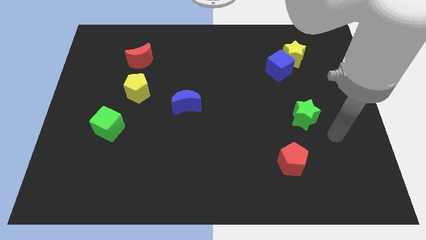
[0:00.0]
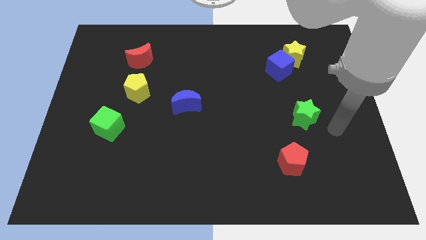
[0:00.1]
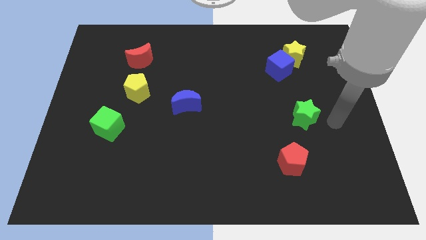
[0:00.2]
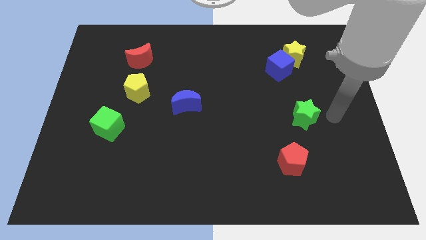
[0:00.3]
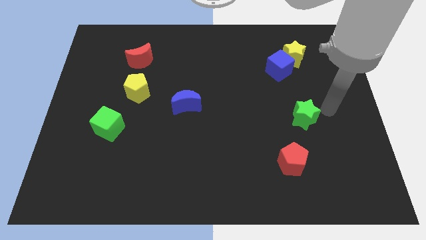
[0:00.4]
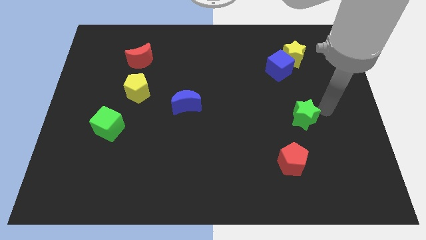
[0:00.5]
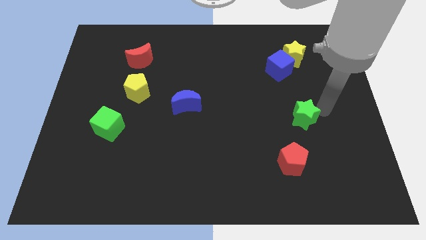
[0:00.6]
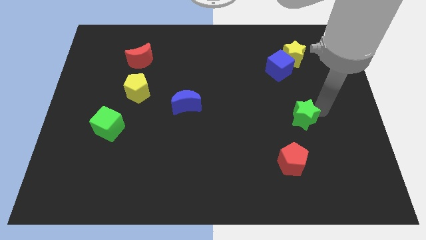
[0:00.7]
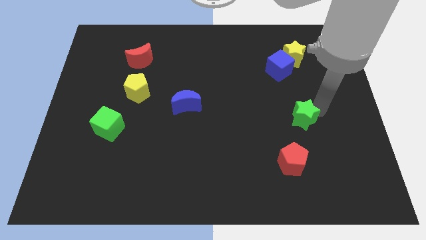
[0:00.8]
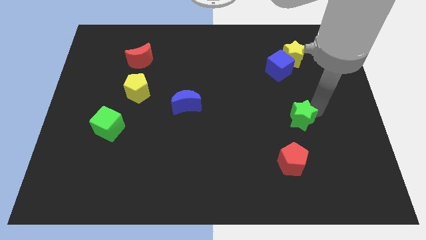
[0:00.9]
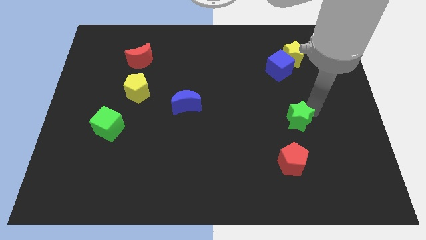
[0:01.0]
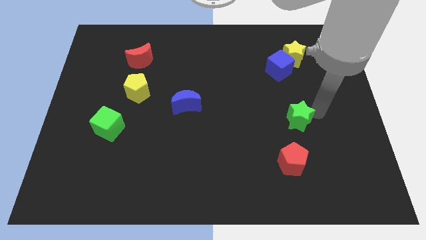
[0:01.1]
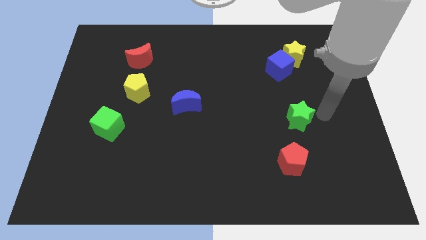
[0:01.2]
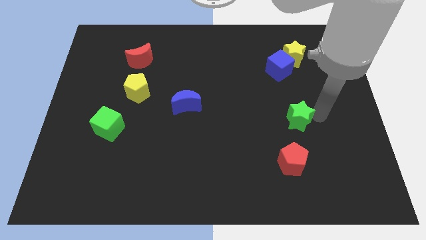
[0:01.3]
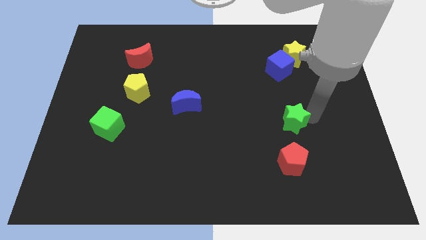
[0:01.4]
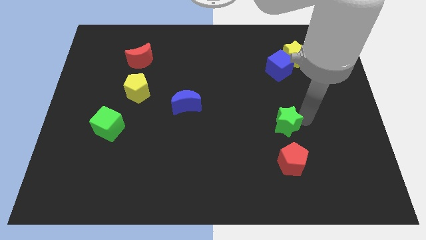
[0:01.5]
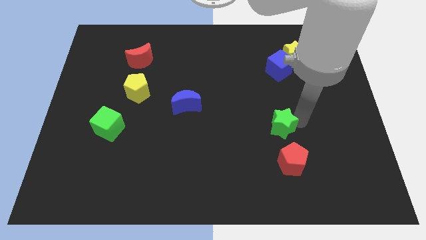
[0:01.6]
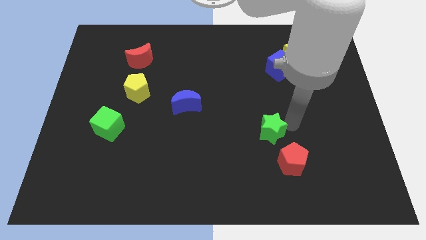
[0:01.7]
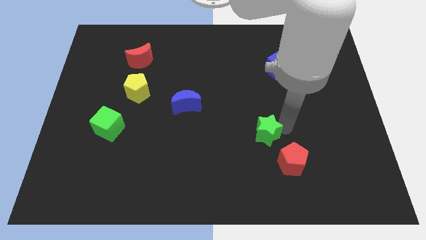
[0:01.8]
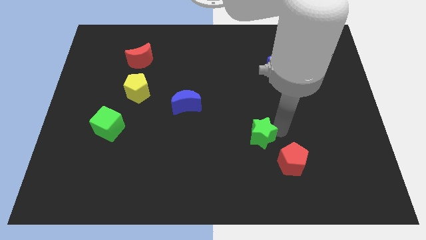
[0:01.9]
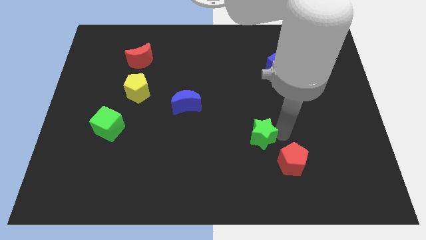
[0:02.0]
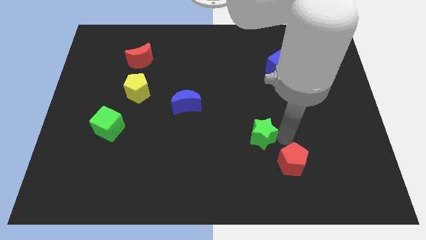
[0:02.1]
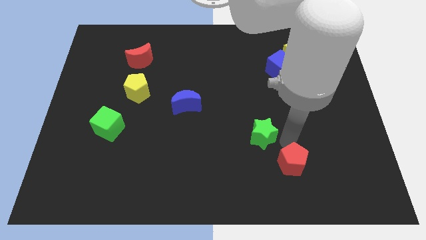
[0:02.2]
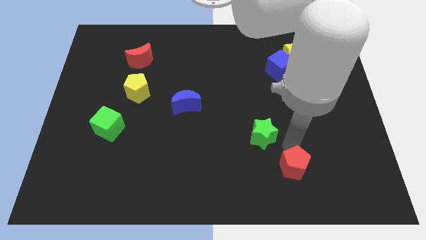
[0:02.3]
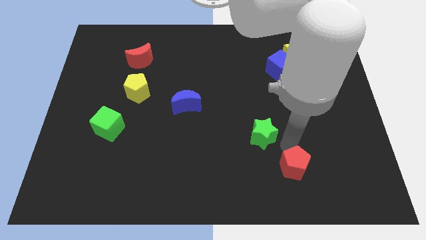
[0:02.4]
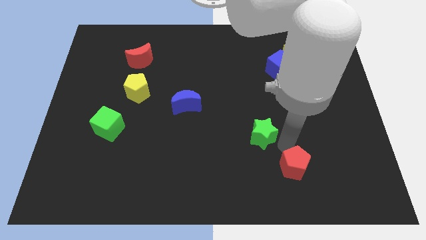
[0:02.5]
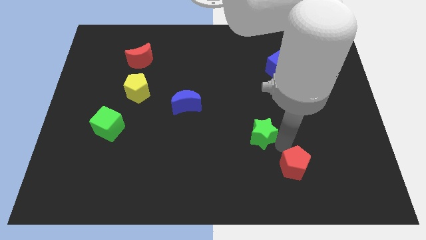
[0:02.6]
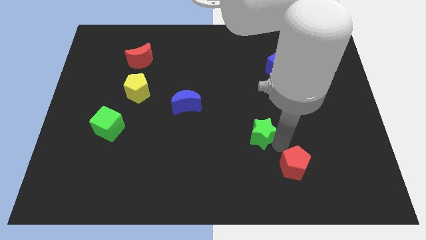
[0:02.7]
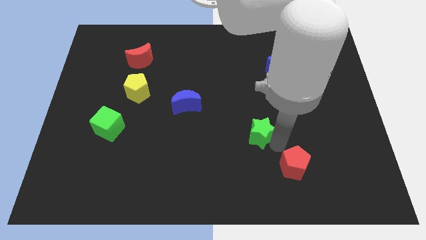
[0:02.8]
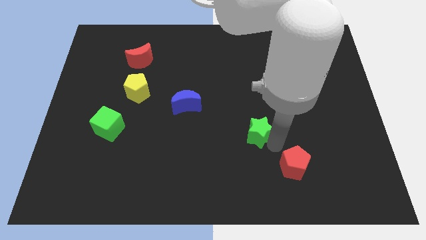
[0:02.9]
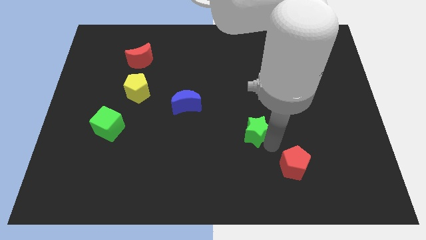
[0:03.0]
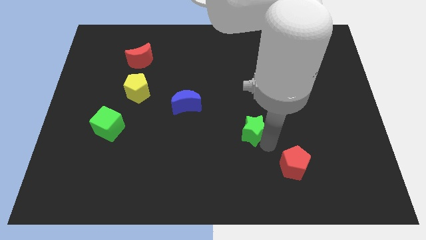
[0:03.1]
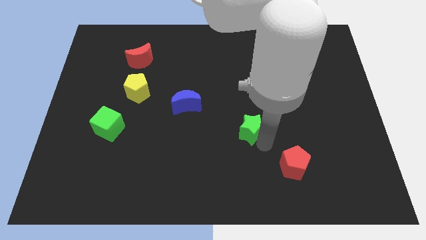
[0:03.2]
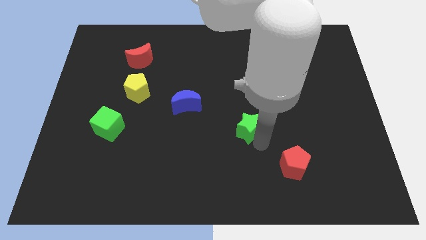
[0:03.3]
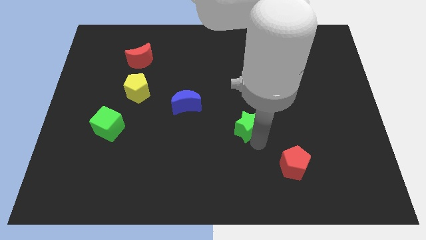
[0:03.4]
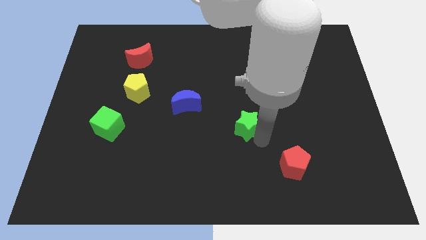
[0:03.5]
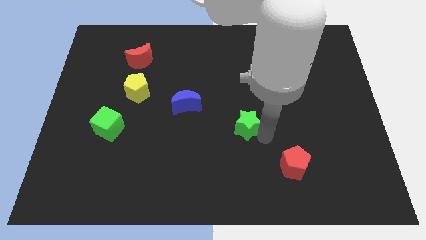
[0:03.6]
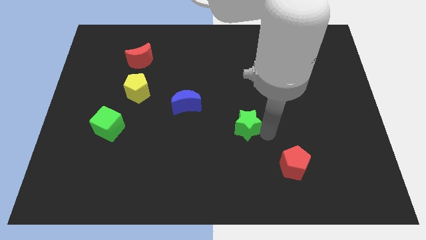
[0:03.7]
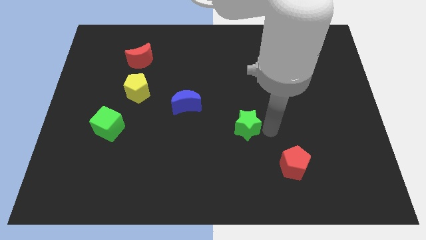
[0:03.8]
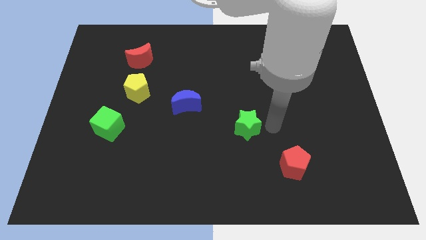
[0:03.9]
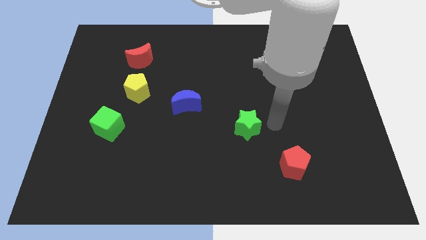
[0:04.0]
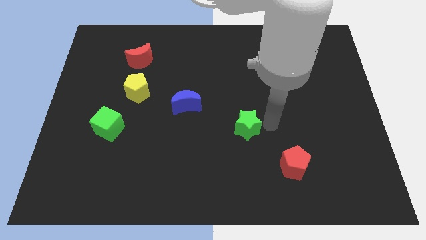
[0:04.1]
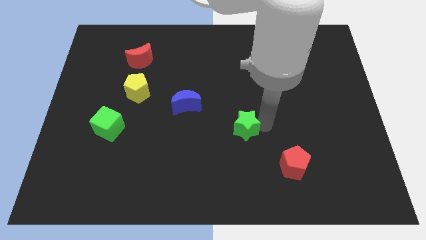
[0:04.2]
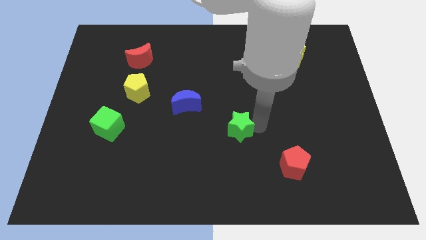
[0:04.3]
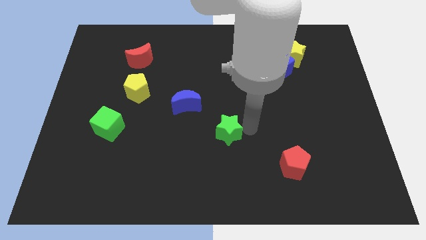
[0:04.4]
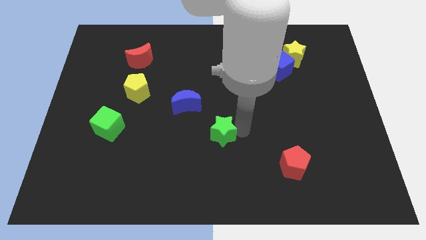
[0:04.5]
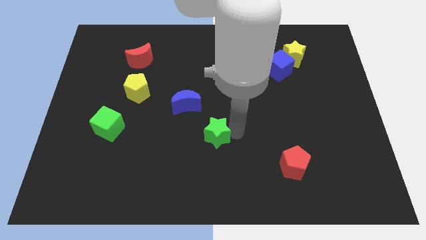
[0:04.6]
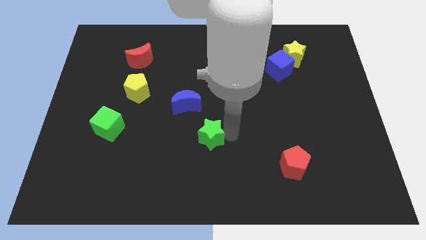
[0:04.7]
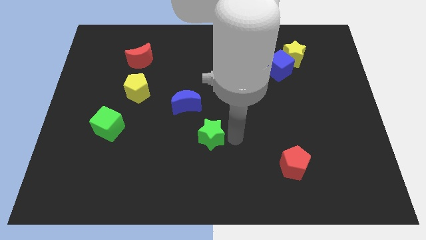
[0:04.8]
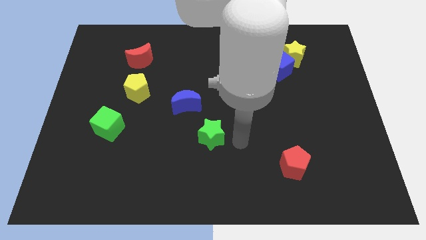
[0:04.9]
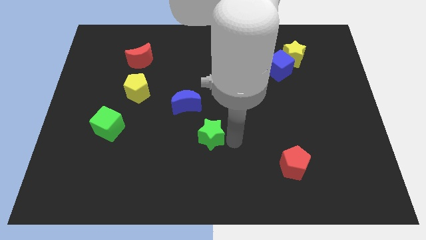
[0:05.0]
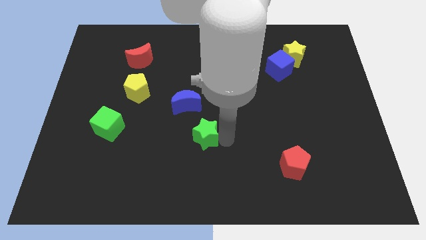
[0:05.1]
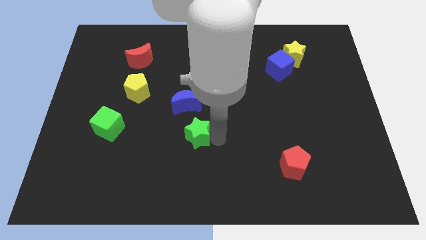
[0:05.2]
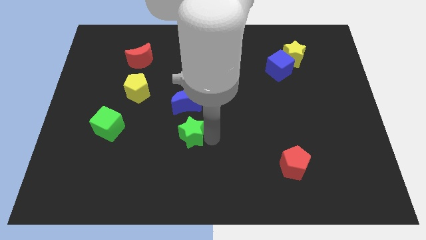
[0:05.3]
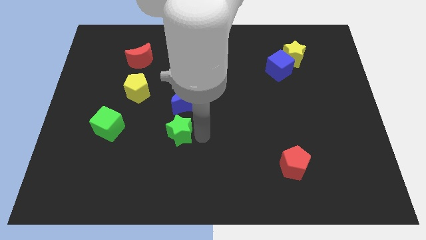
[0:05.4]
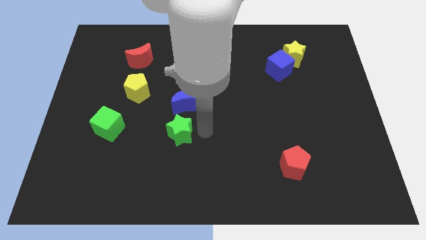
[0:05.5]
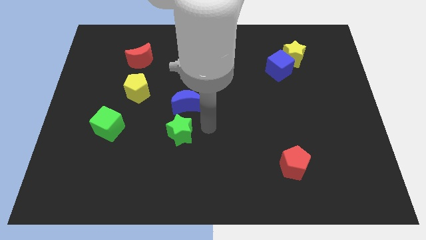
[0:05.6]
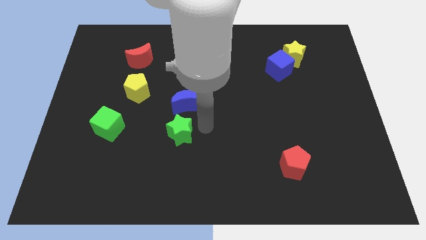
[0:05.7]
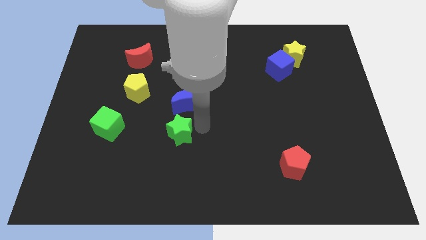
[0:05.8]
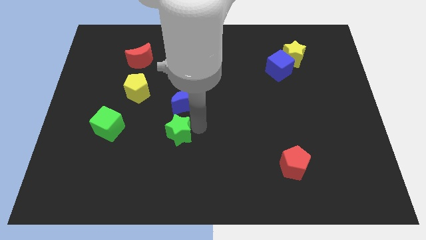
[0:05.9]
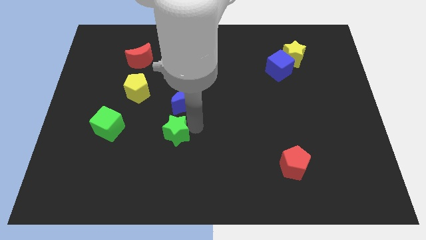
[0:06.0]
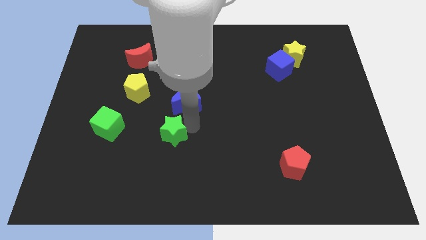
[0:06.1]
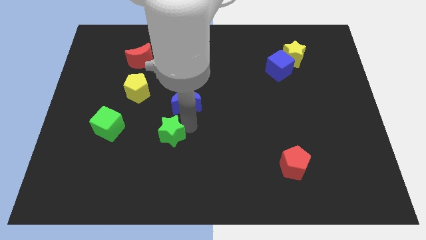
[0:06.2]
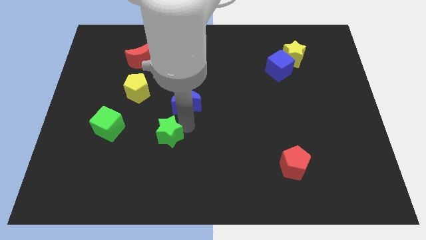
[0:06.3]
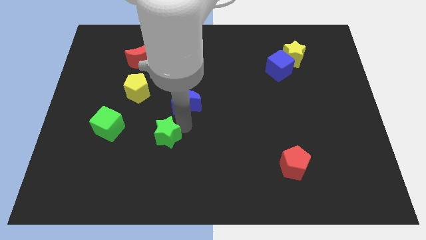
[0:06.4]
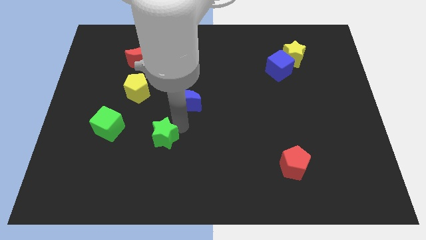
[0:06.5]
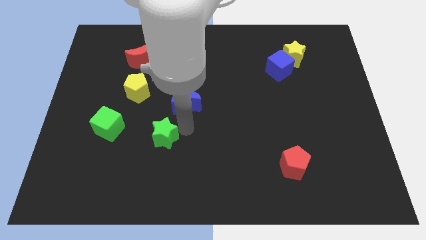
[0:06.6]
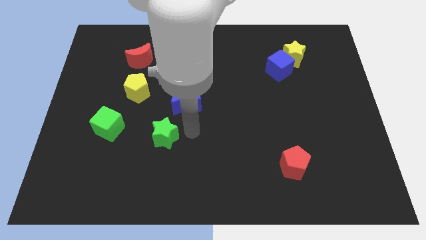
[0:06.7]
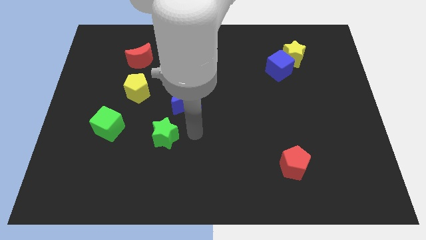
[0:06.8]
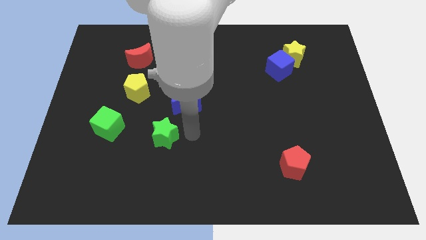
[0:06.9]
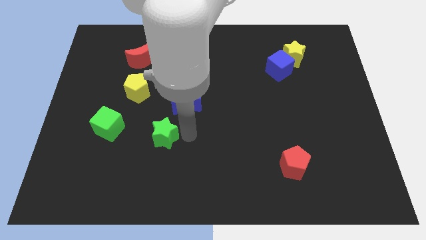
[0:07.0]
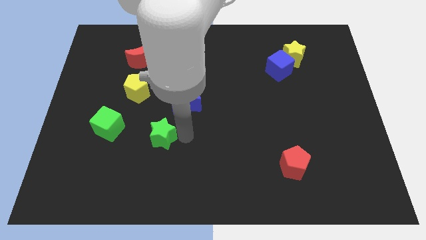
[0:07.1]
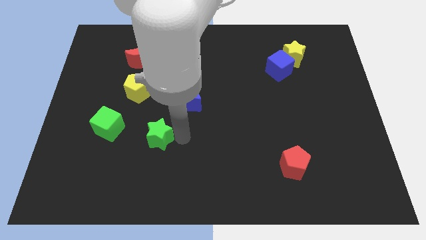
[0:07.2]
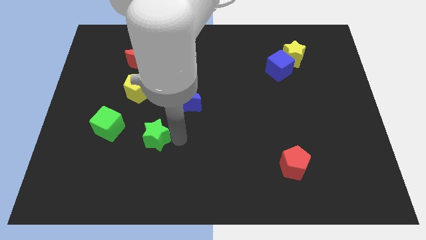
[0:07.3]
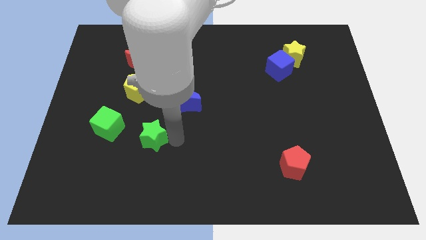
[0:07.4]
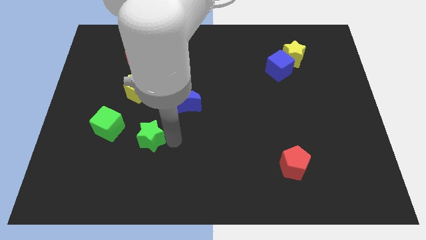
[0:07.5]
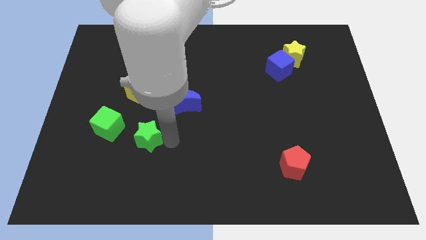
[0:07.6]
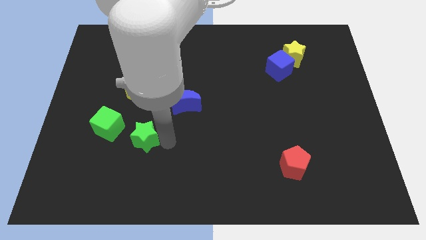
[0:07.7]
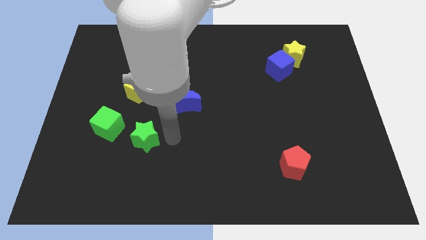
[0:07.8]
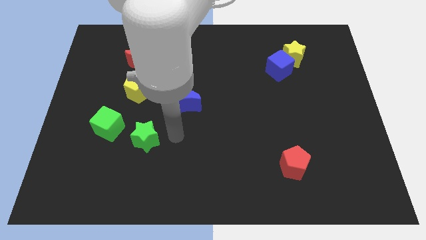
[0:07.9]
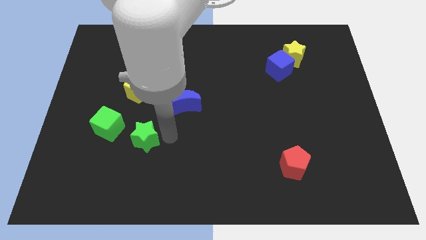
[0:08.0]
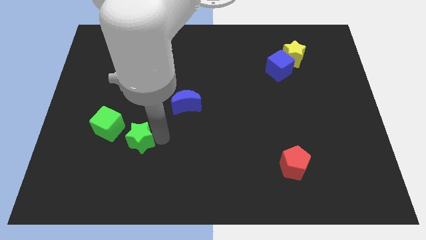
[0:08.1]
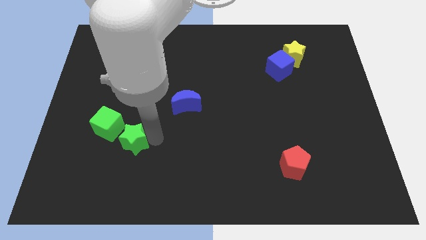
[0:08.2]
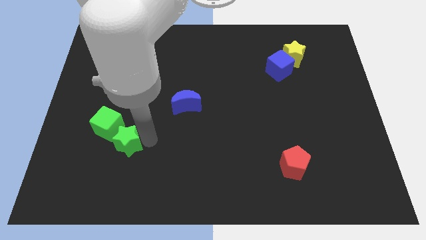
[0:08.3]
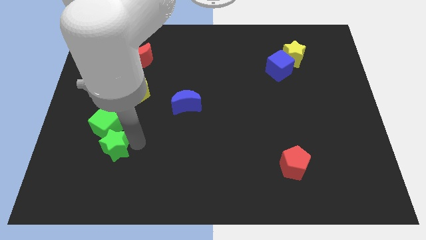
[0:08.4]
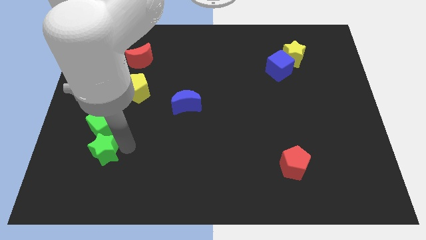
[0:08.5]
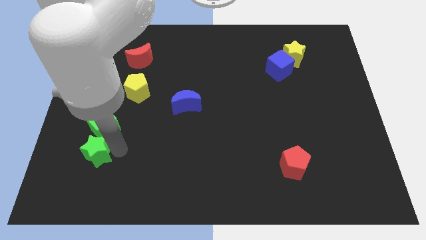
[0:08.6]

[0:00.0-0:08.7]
put the green star to the bottom left of the green cube
